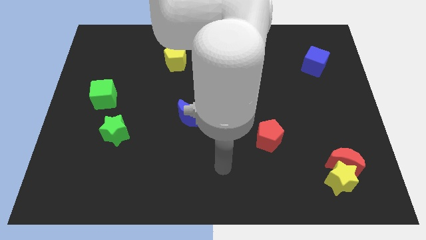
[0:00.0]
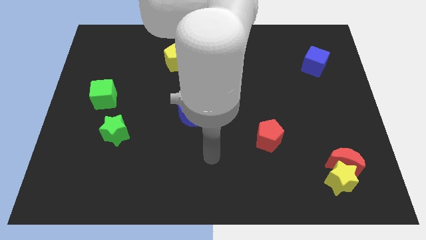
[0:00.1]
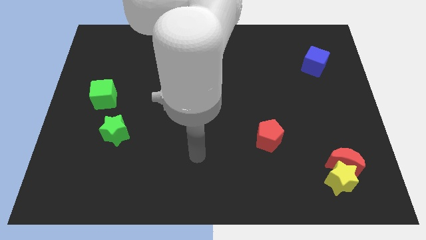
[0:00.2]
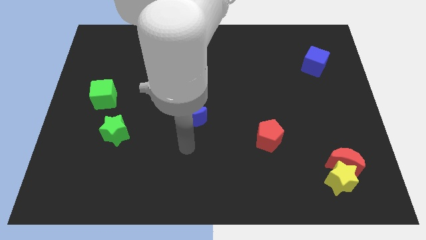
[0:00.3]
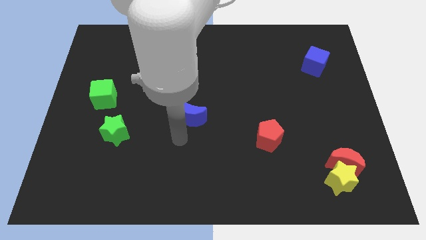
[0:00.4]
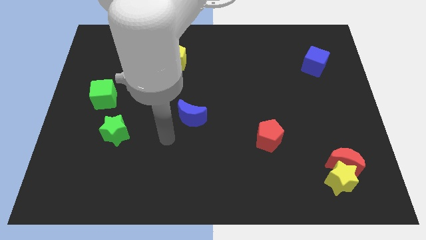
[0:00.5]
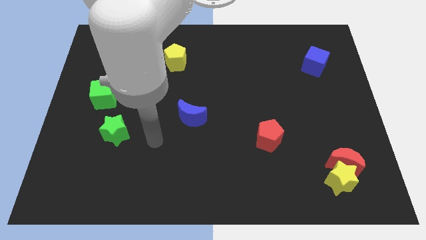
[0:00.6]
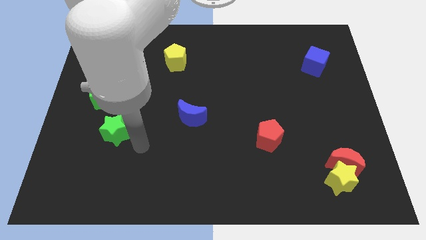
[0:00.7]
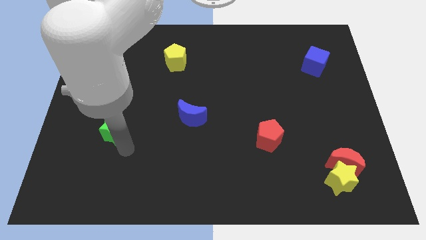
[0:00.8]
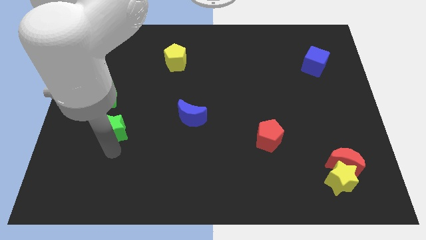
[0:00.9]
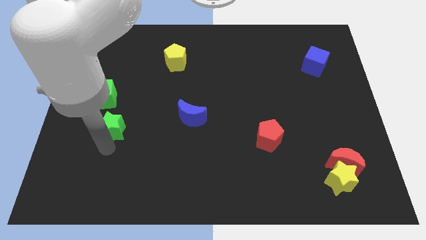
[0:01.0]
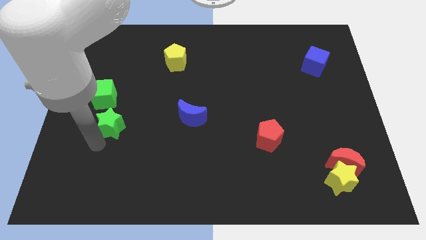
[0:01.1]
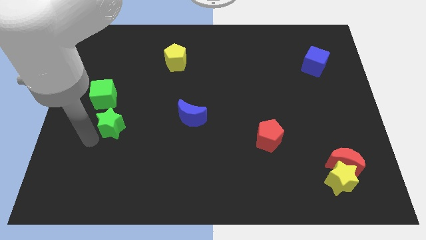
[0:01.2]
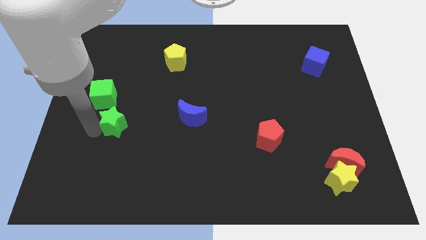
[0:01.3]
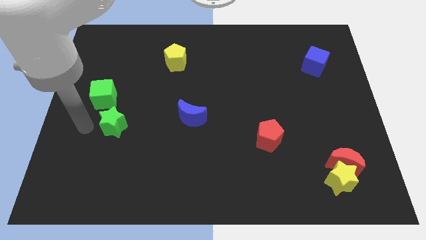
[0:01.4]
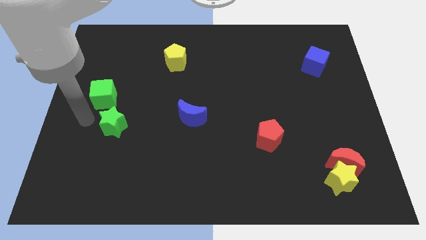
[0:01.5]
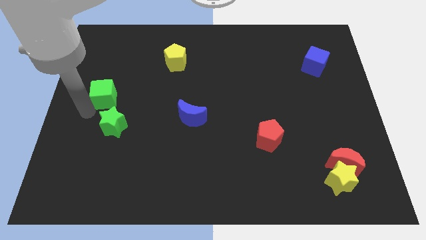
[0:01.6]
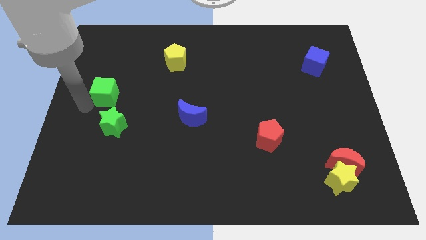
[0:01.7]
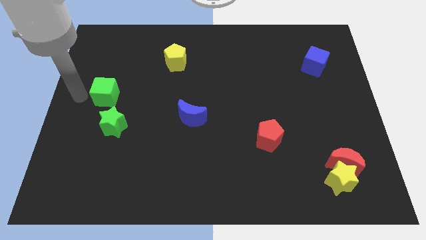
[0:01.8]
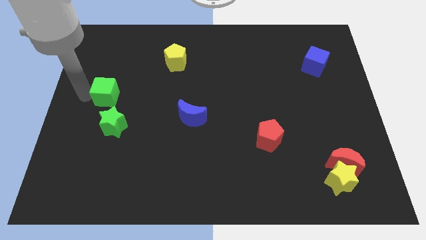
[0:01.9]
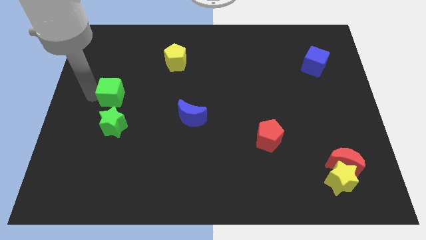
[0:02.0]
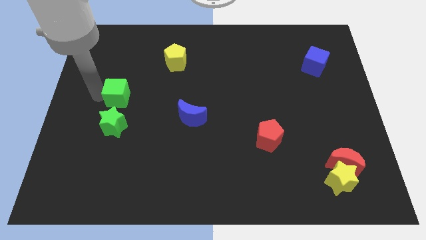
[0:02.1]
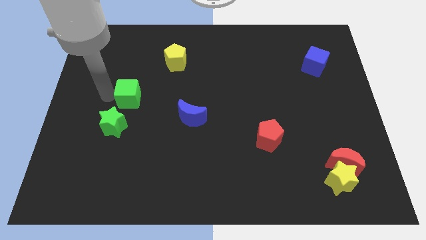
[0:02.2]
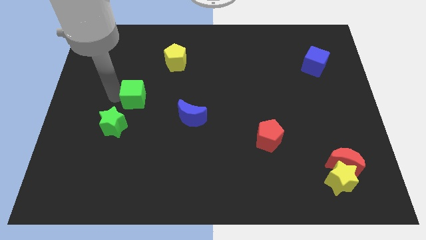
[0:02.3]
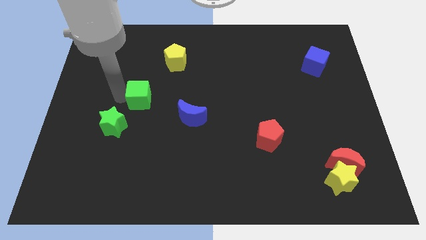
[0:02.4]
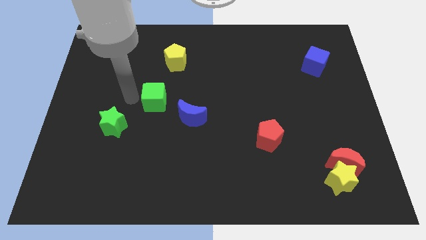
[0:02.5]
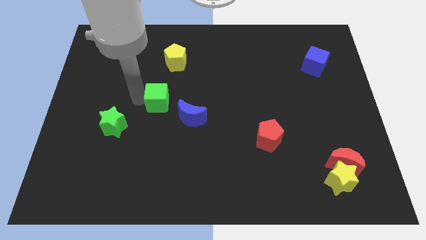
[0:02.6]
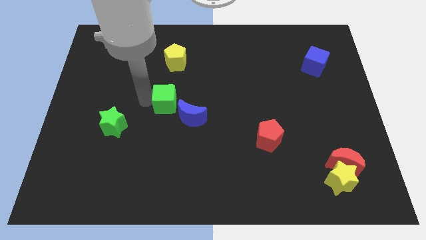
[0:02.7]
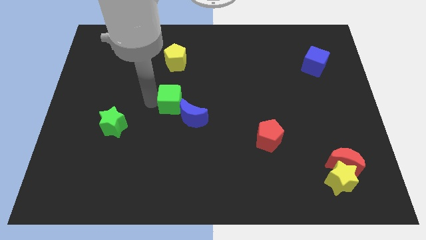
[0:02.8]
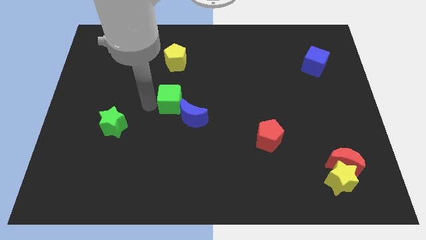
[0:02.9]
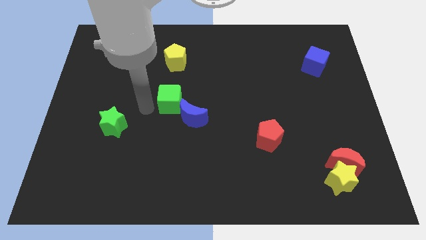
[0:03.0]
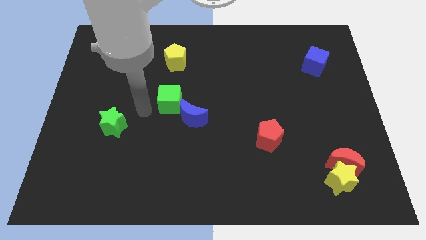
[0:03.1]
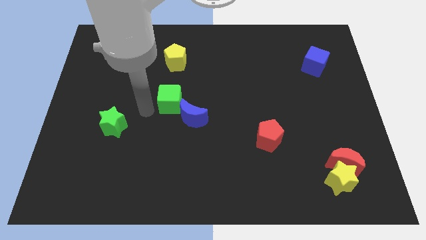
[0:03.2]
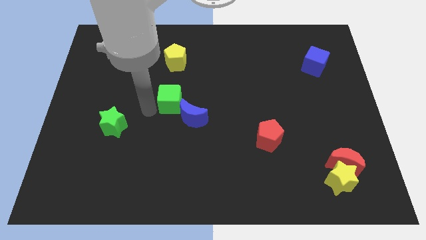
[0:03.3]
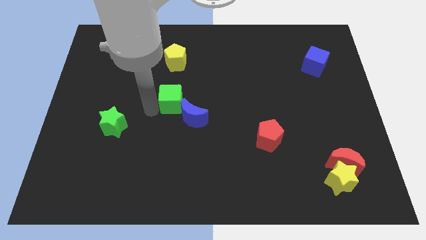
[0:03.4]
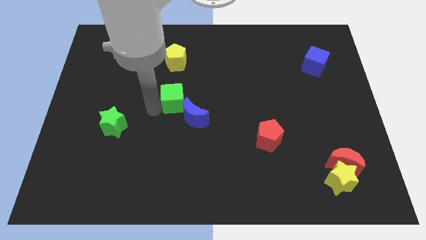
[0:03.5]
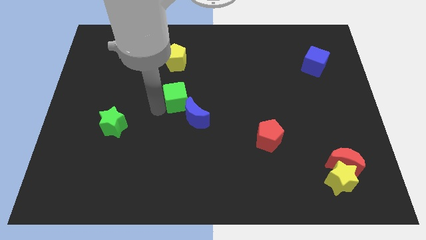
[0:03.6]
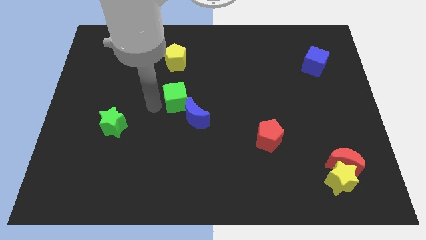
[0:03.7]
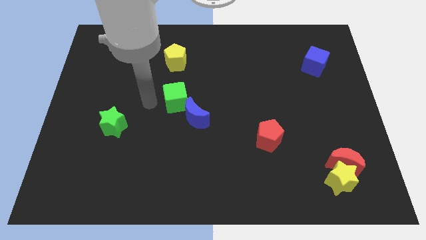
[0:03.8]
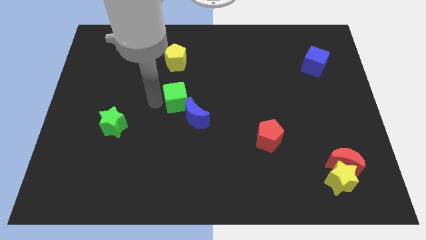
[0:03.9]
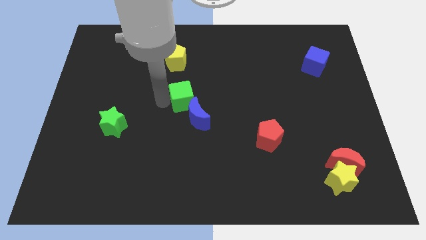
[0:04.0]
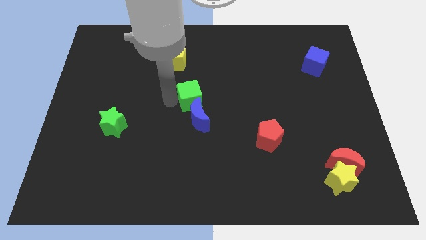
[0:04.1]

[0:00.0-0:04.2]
move the green cube to the right

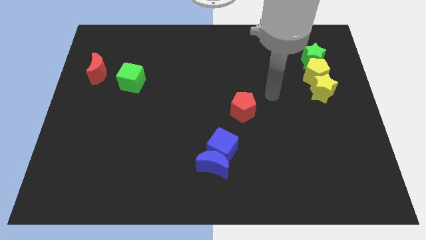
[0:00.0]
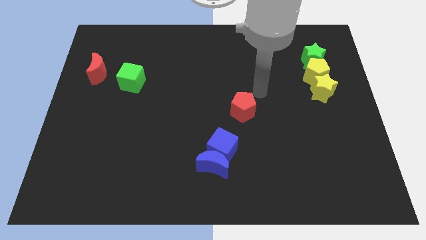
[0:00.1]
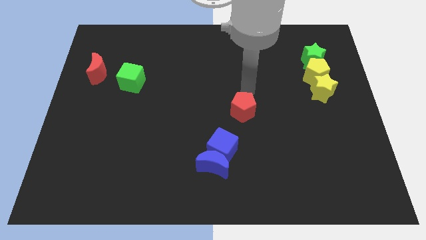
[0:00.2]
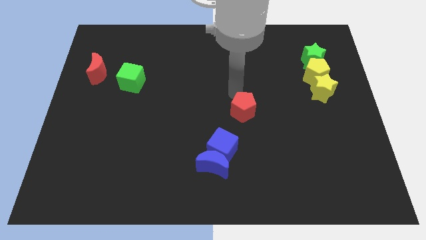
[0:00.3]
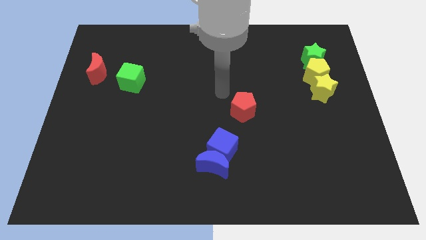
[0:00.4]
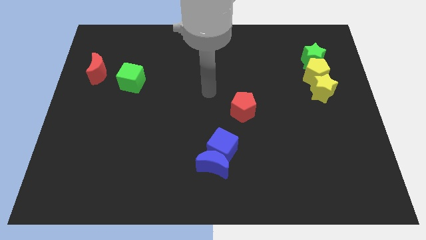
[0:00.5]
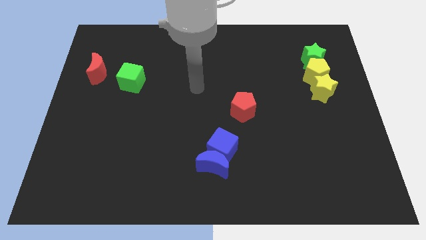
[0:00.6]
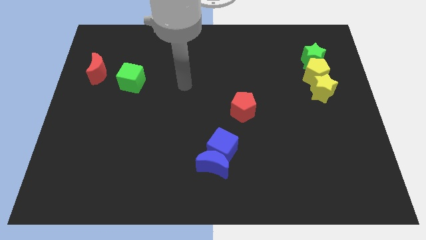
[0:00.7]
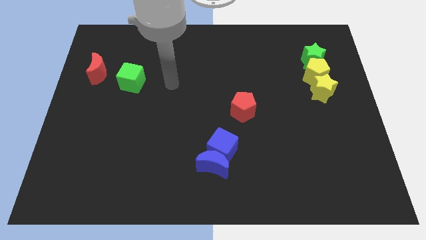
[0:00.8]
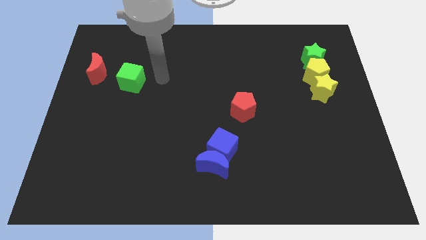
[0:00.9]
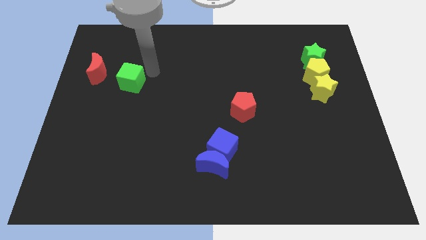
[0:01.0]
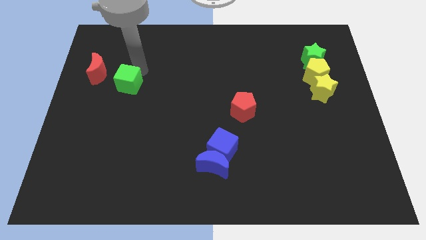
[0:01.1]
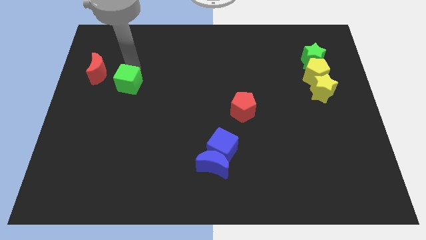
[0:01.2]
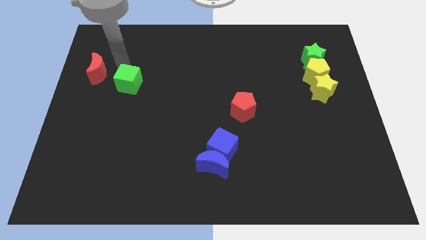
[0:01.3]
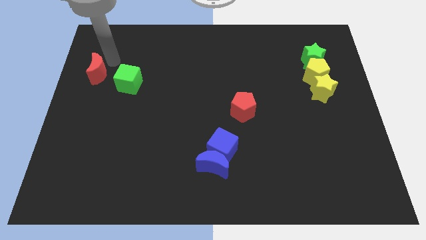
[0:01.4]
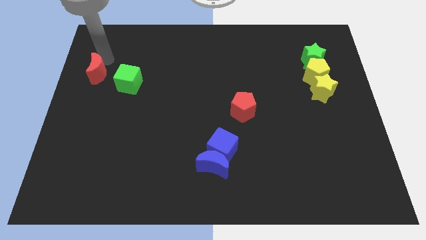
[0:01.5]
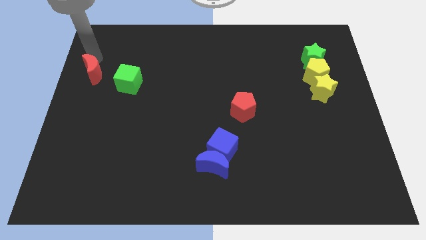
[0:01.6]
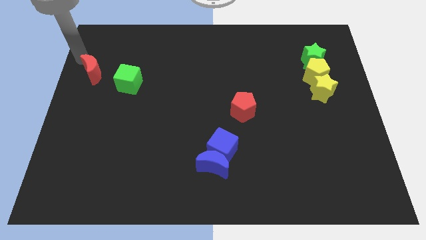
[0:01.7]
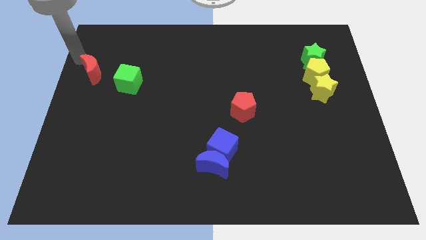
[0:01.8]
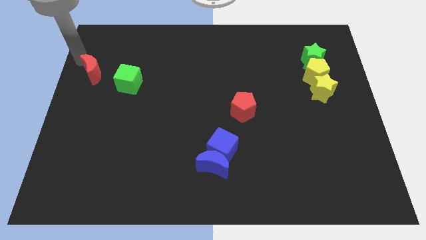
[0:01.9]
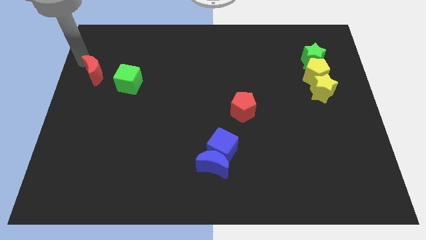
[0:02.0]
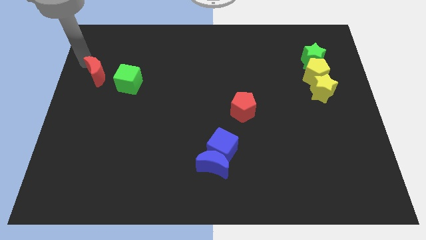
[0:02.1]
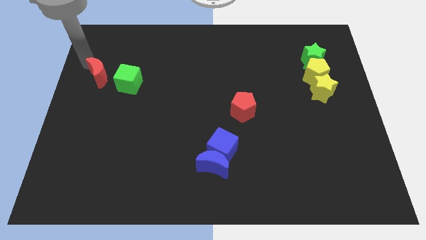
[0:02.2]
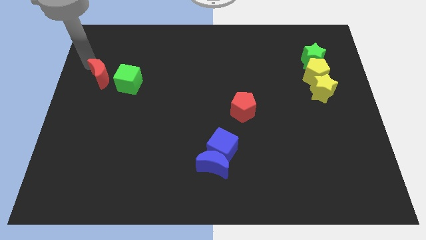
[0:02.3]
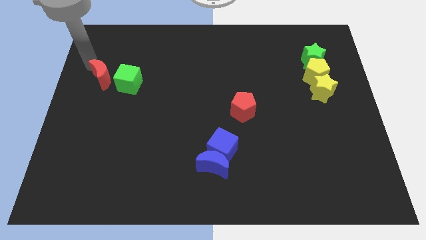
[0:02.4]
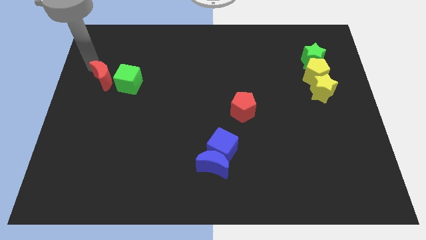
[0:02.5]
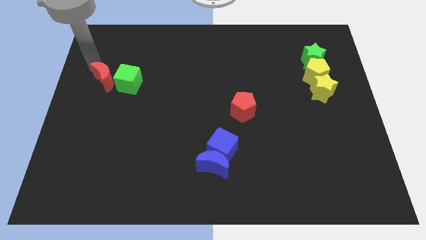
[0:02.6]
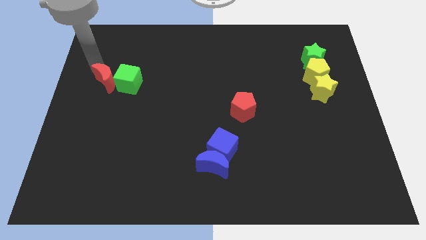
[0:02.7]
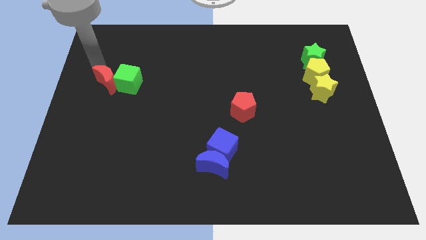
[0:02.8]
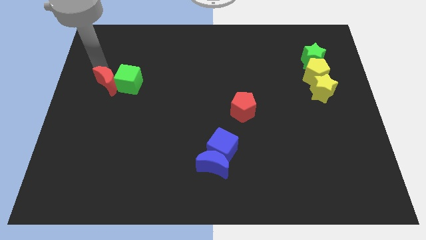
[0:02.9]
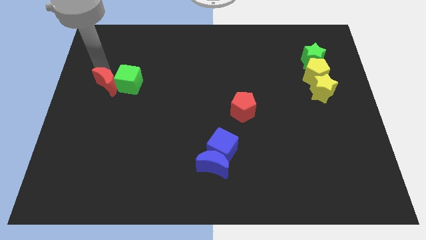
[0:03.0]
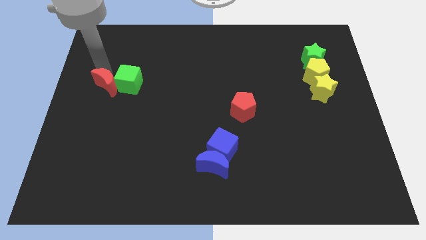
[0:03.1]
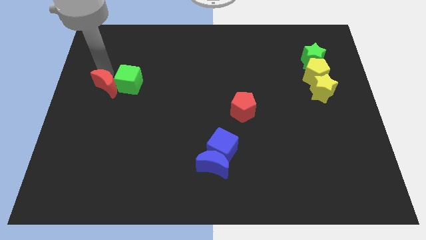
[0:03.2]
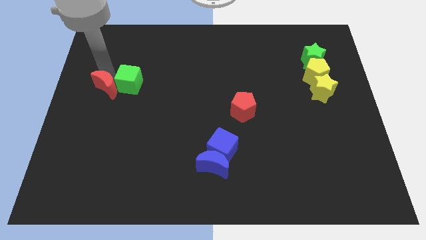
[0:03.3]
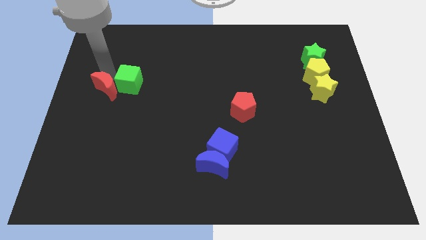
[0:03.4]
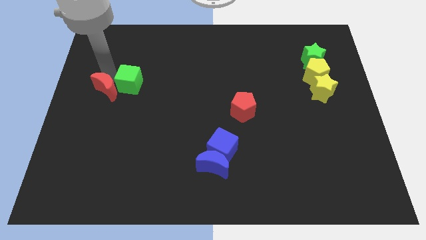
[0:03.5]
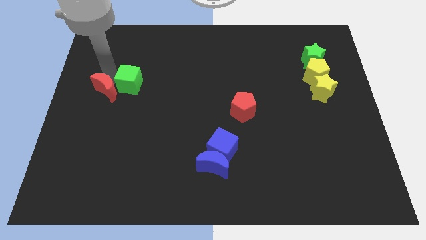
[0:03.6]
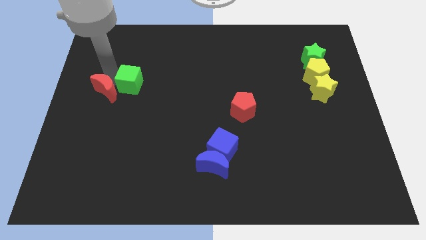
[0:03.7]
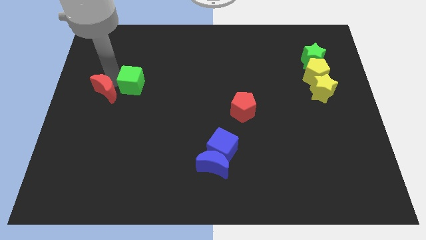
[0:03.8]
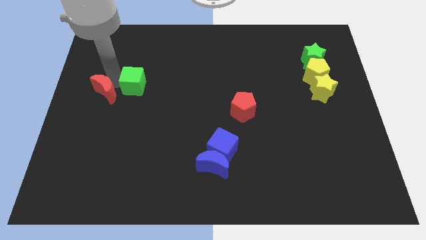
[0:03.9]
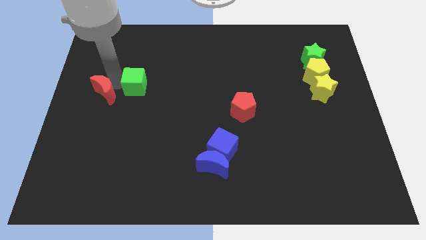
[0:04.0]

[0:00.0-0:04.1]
slide the red moon a bit downwards and then right

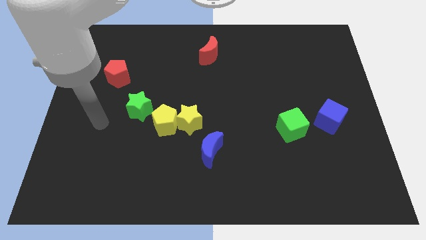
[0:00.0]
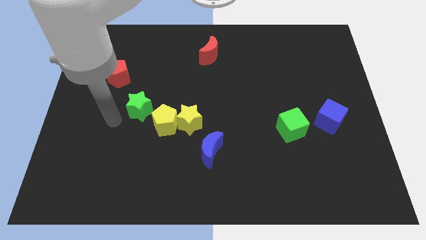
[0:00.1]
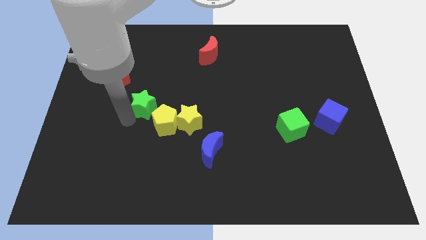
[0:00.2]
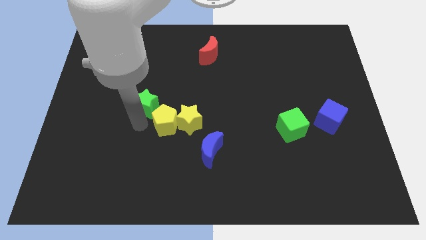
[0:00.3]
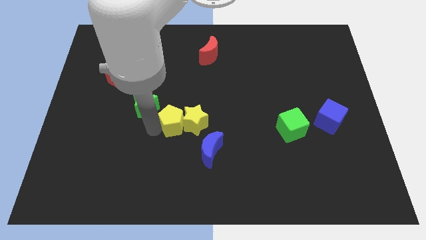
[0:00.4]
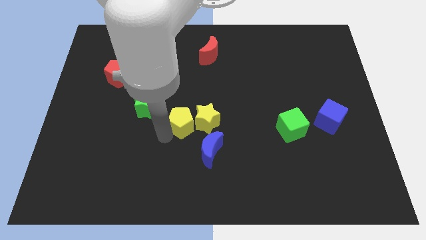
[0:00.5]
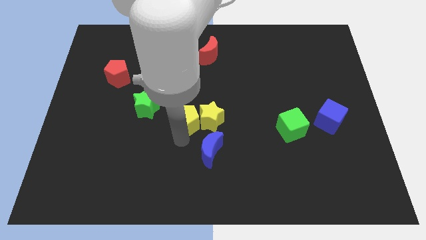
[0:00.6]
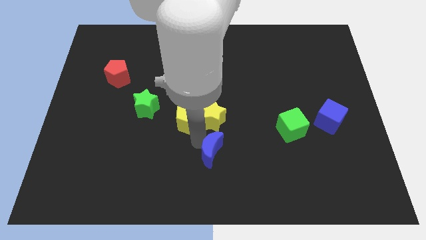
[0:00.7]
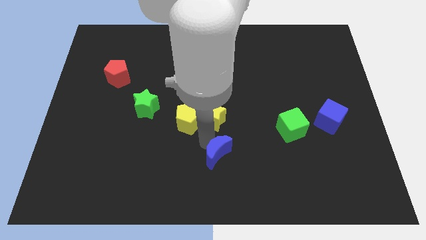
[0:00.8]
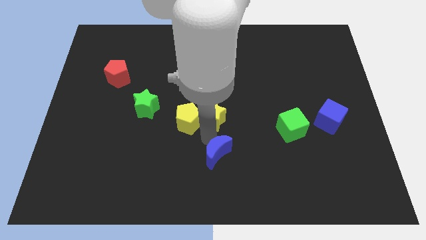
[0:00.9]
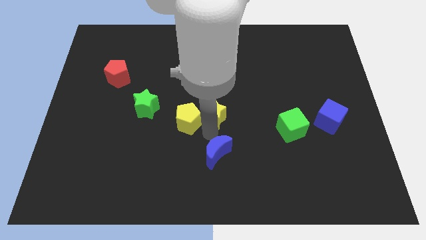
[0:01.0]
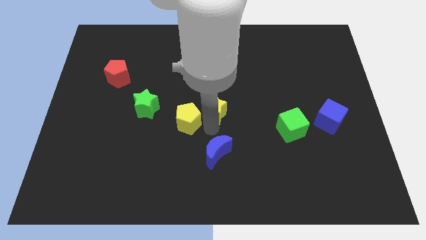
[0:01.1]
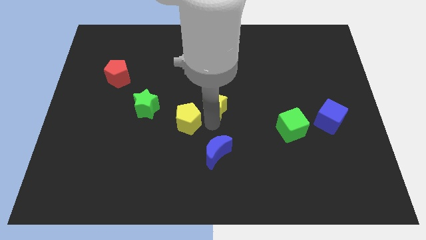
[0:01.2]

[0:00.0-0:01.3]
slide the yellow star up and then right slightly
